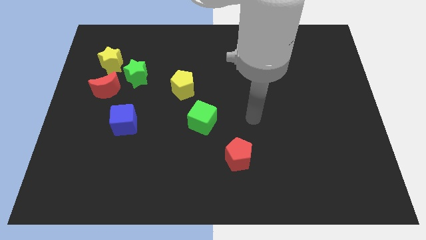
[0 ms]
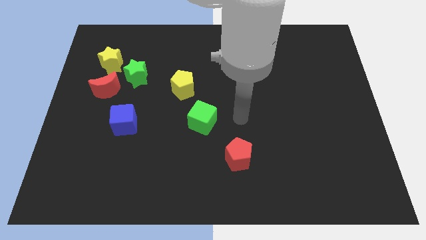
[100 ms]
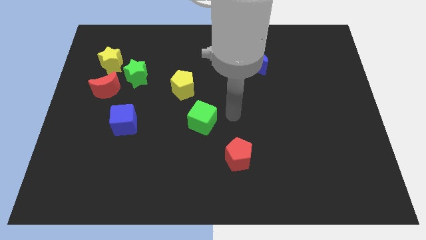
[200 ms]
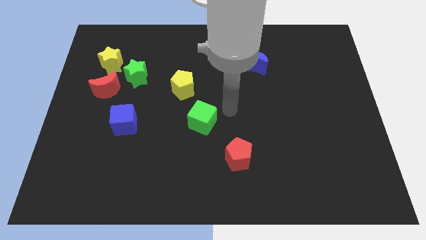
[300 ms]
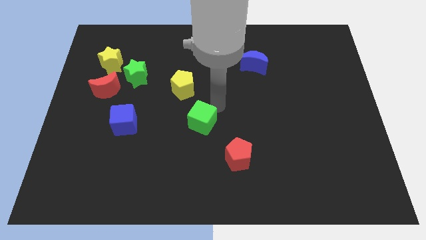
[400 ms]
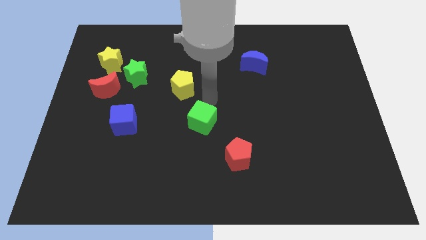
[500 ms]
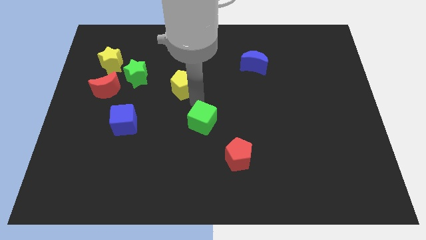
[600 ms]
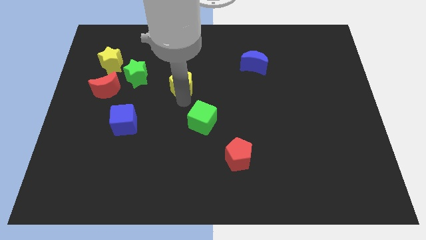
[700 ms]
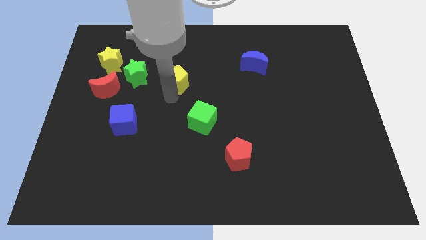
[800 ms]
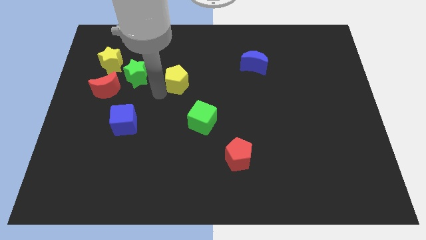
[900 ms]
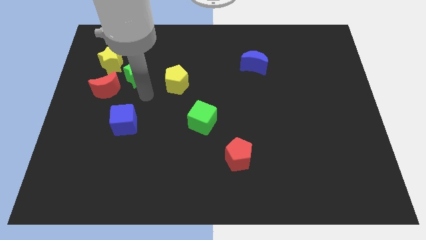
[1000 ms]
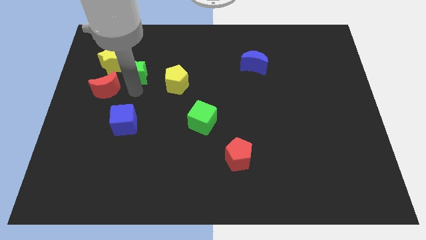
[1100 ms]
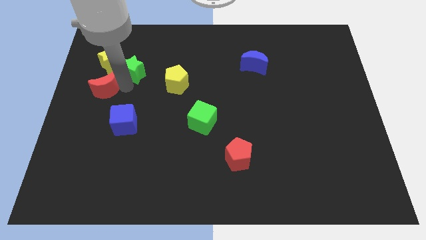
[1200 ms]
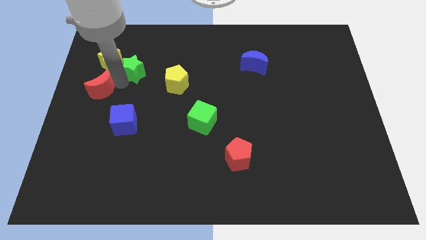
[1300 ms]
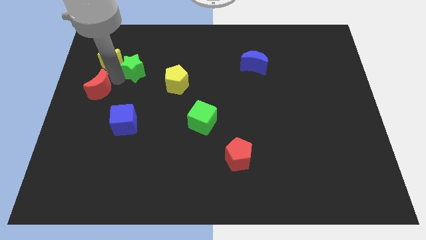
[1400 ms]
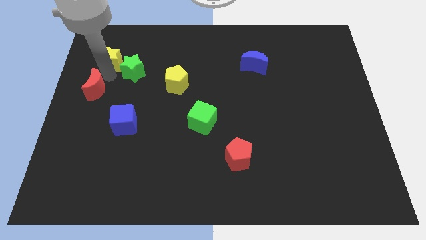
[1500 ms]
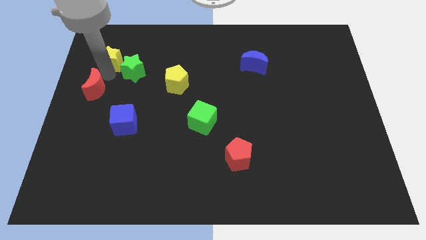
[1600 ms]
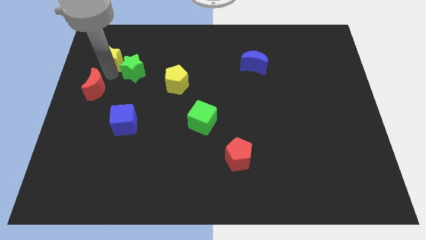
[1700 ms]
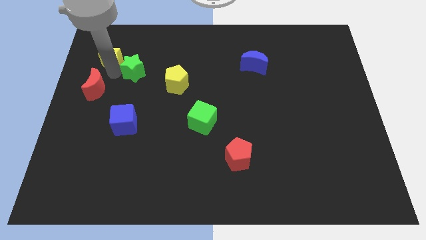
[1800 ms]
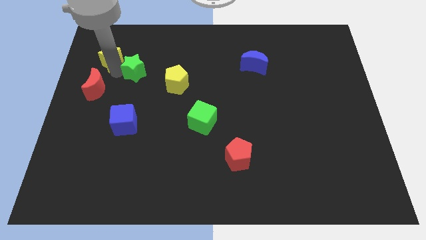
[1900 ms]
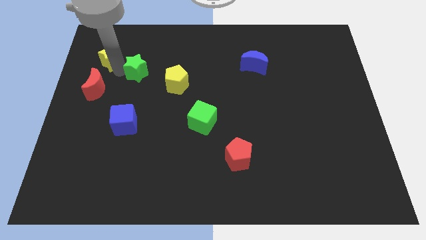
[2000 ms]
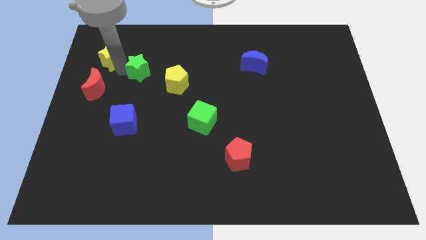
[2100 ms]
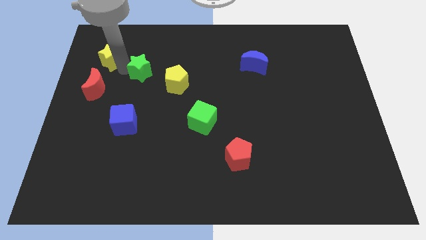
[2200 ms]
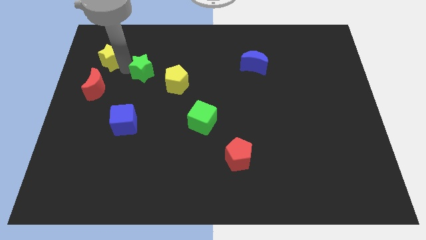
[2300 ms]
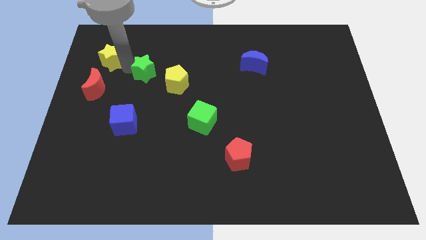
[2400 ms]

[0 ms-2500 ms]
pull the green star apart from the red moon and yellow star

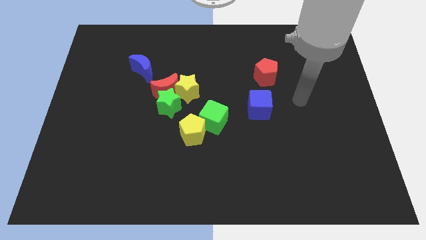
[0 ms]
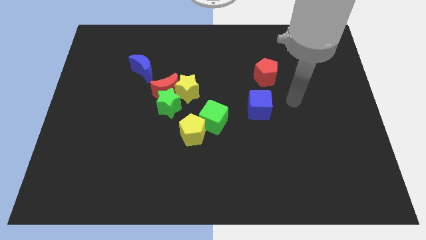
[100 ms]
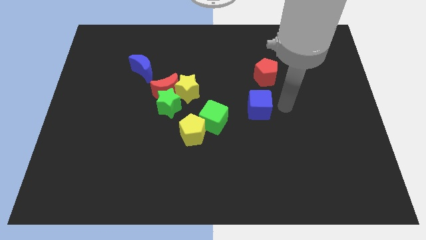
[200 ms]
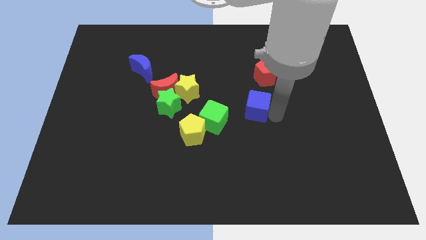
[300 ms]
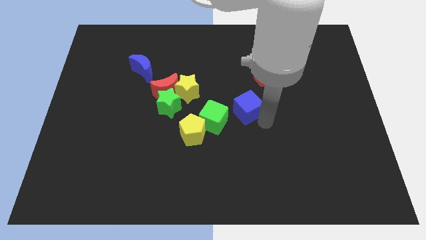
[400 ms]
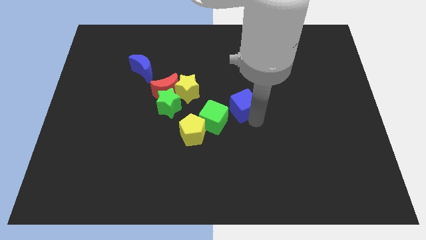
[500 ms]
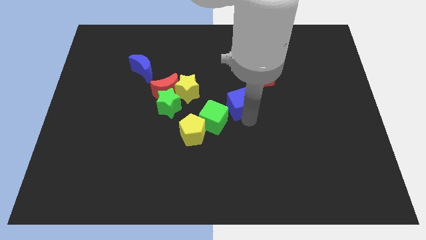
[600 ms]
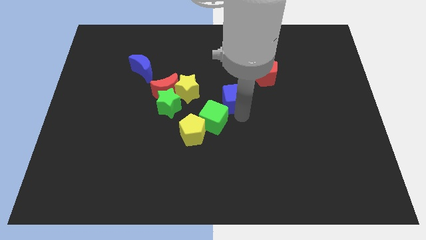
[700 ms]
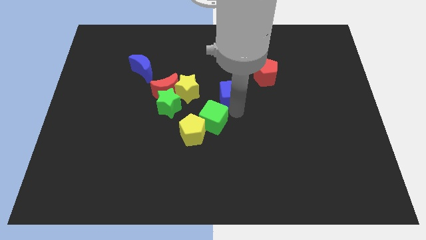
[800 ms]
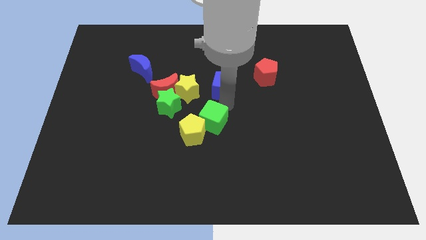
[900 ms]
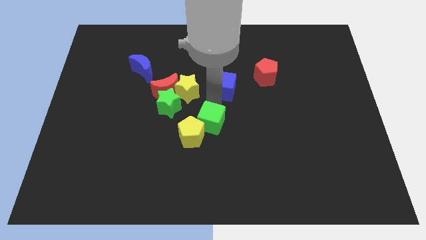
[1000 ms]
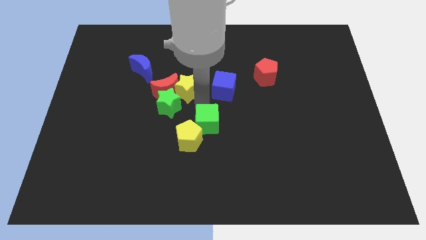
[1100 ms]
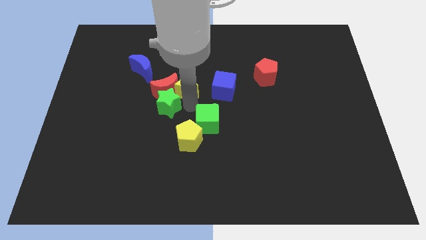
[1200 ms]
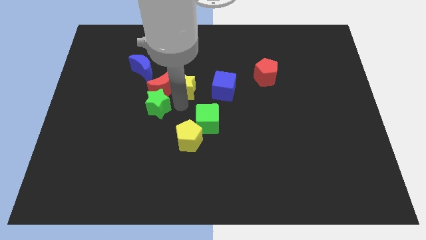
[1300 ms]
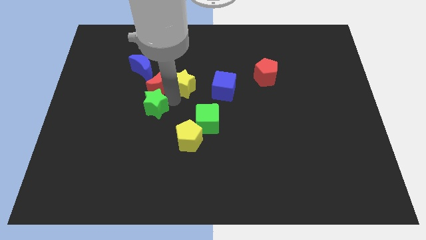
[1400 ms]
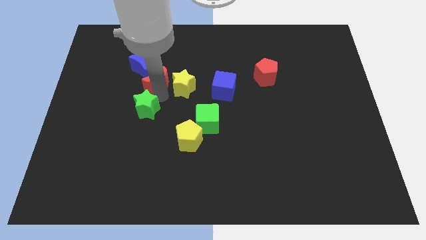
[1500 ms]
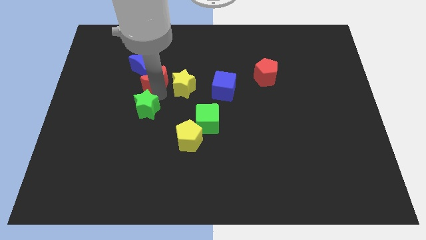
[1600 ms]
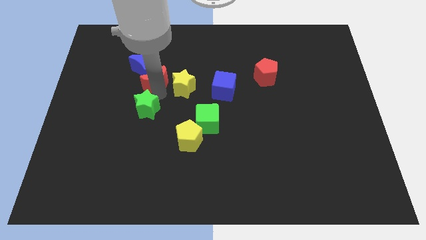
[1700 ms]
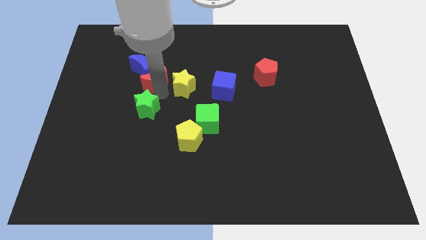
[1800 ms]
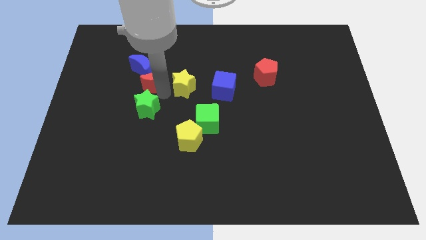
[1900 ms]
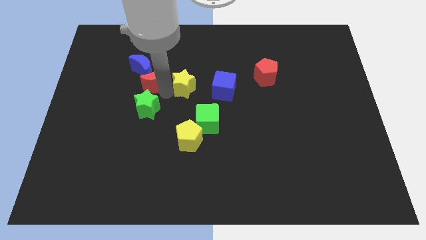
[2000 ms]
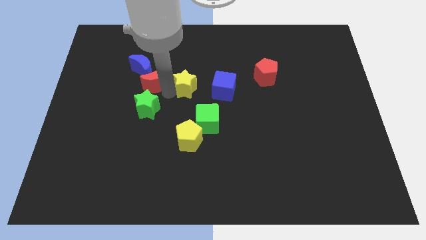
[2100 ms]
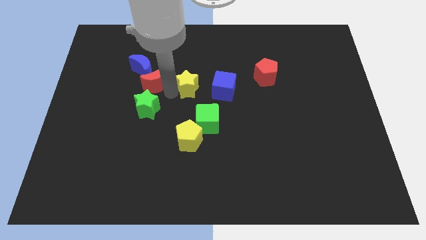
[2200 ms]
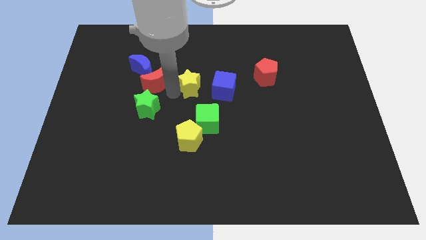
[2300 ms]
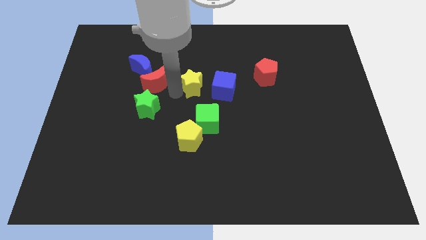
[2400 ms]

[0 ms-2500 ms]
move the yellow star away from the red moon and green star

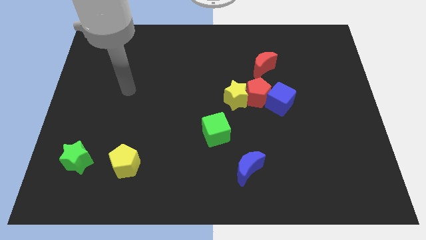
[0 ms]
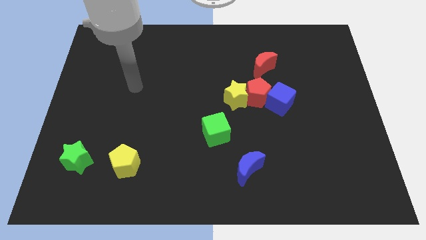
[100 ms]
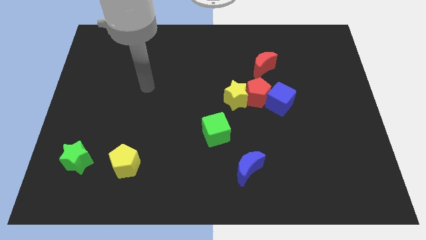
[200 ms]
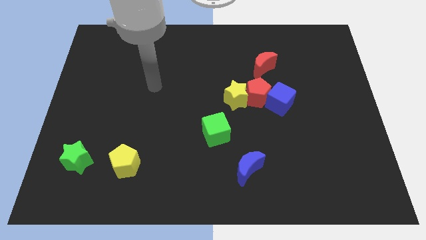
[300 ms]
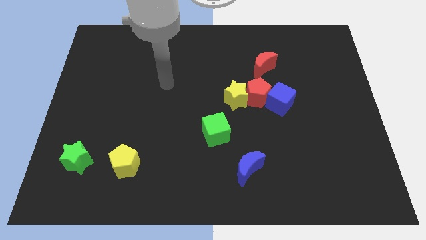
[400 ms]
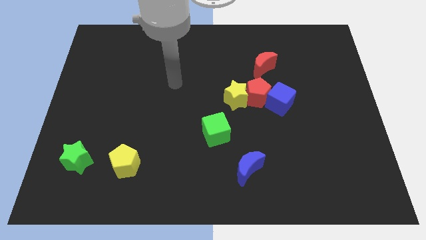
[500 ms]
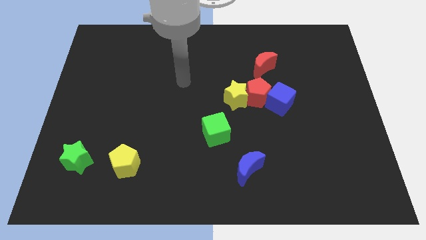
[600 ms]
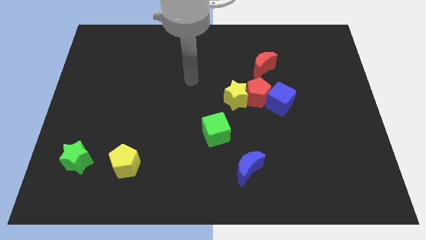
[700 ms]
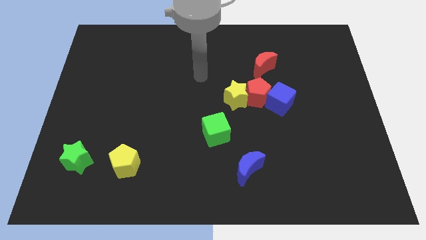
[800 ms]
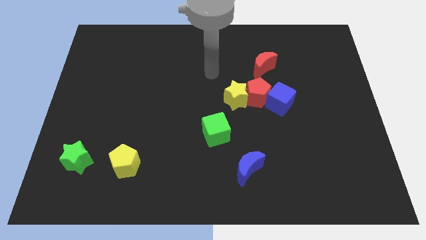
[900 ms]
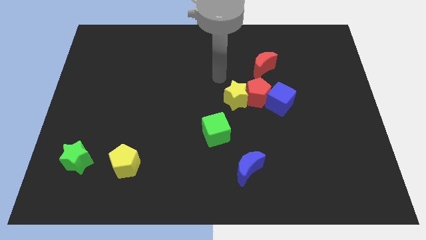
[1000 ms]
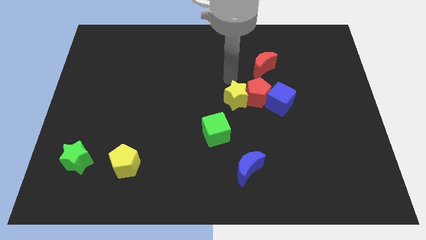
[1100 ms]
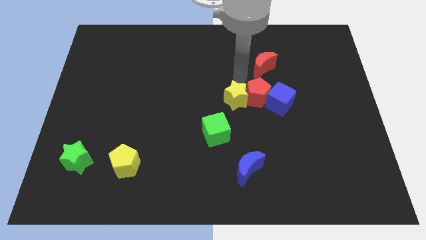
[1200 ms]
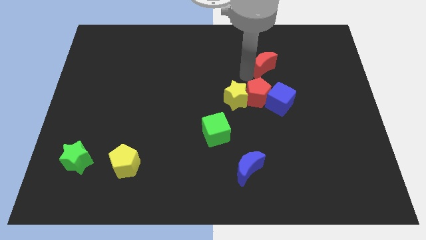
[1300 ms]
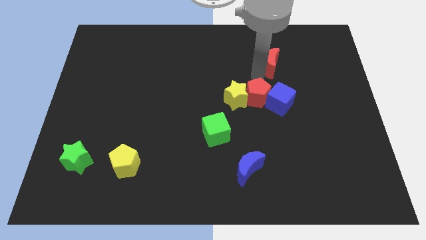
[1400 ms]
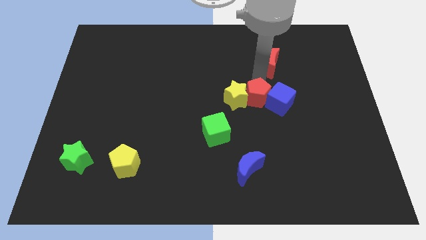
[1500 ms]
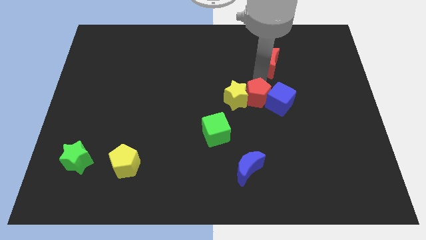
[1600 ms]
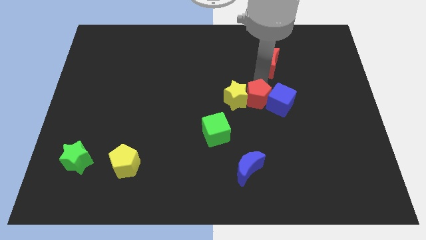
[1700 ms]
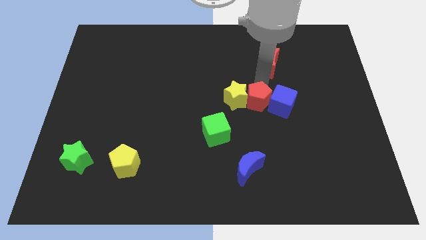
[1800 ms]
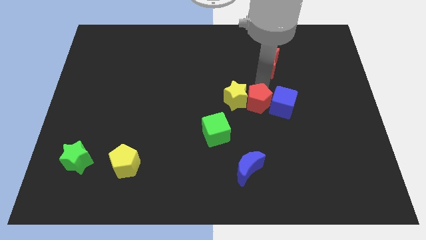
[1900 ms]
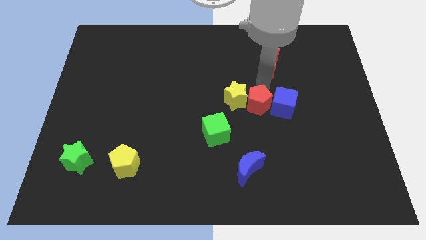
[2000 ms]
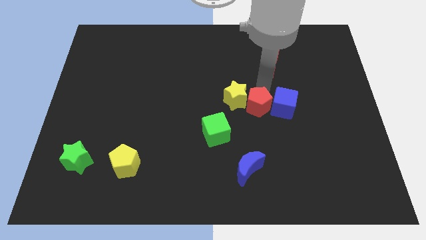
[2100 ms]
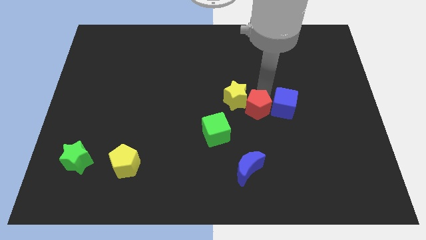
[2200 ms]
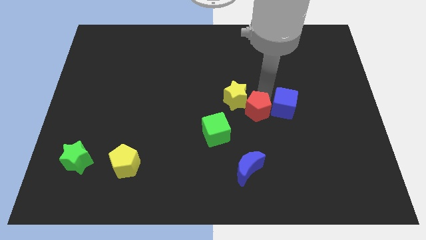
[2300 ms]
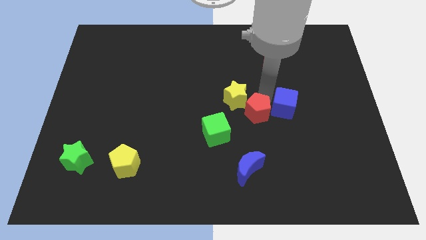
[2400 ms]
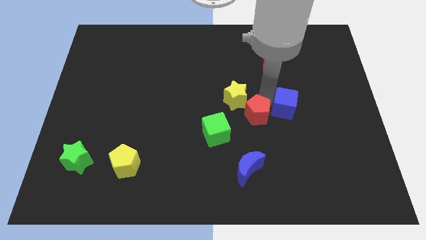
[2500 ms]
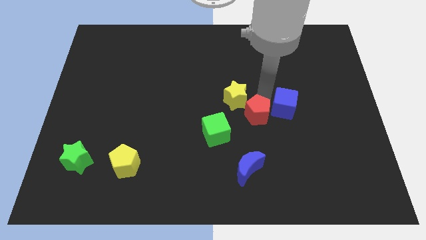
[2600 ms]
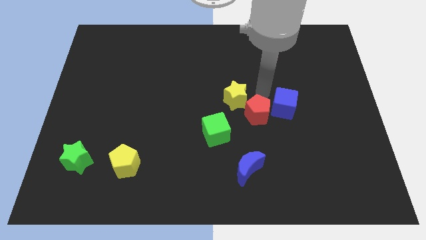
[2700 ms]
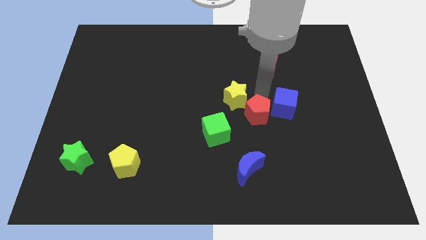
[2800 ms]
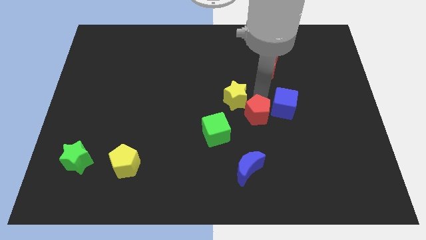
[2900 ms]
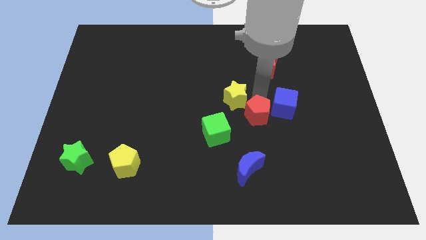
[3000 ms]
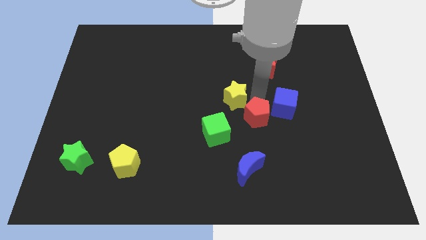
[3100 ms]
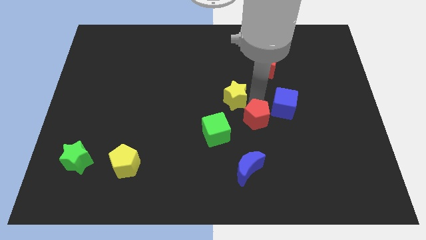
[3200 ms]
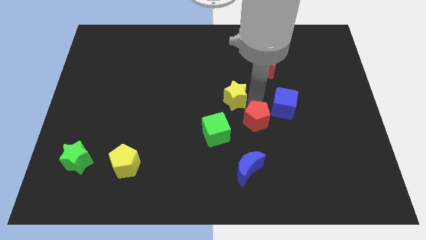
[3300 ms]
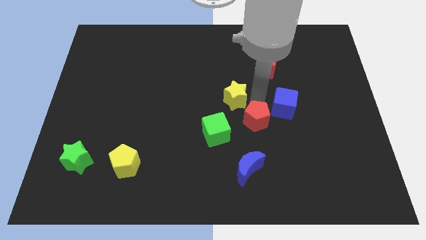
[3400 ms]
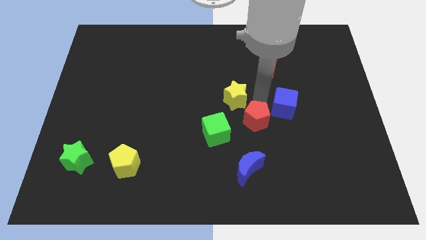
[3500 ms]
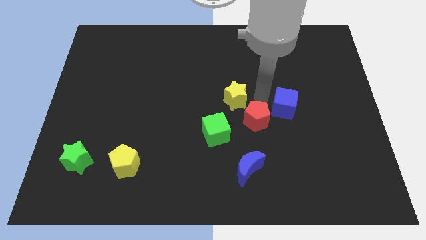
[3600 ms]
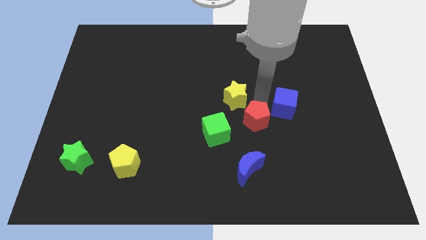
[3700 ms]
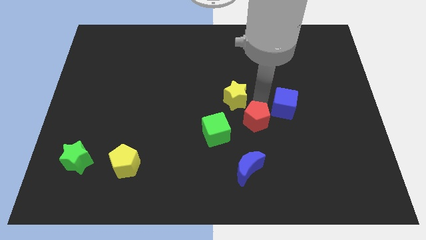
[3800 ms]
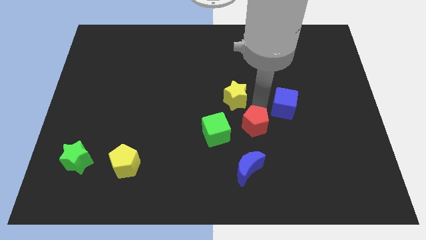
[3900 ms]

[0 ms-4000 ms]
separate the red pentagon from the yellow star, blue cube, and red moon

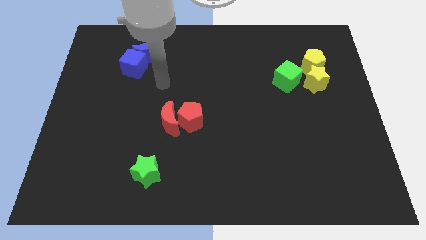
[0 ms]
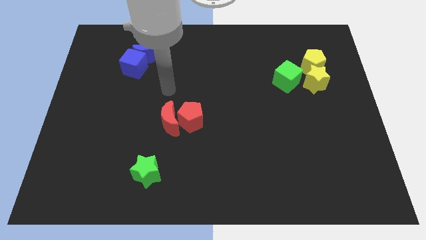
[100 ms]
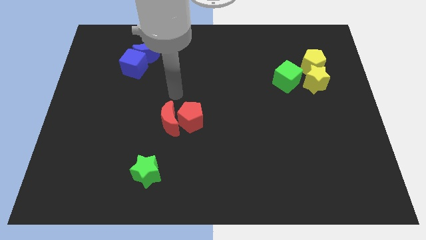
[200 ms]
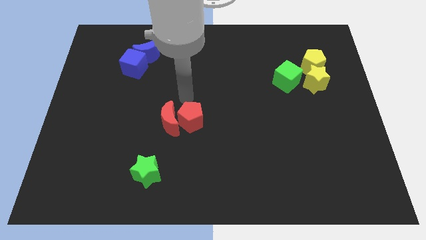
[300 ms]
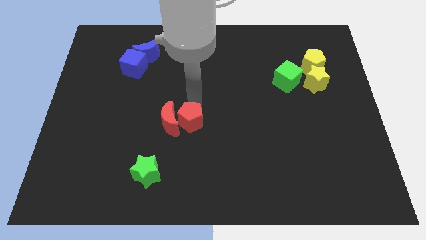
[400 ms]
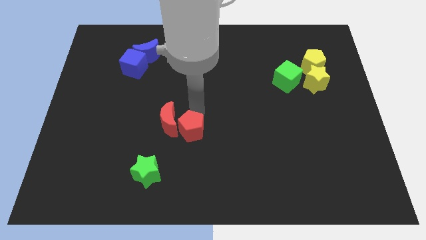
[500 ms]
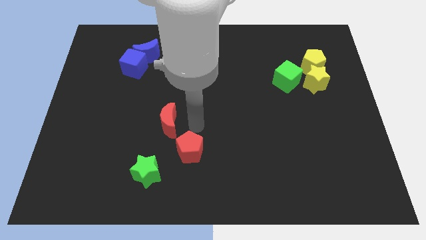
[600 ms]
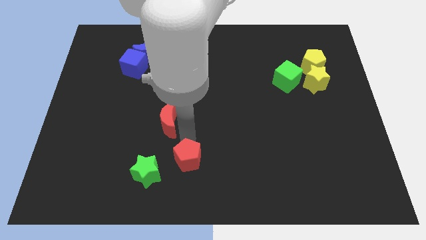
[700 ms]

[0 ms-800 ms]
separate the red moon from the red pentagon
